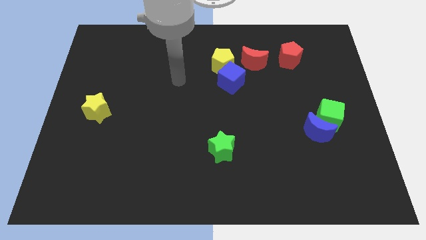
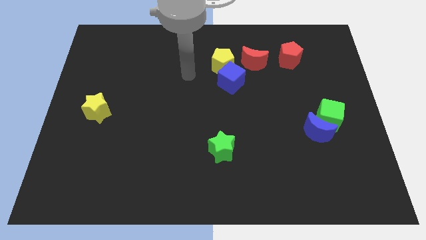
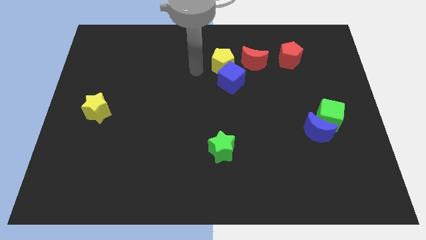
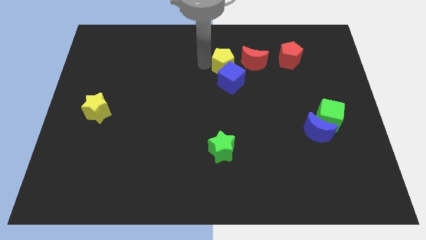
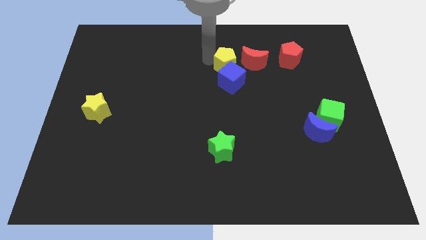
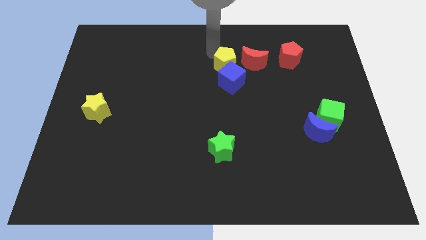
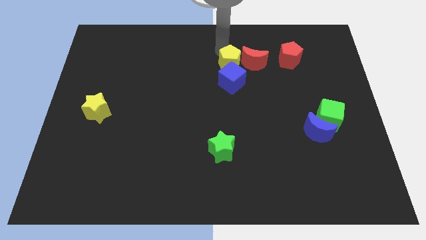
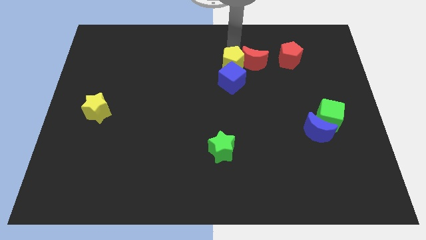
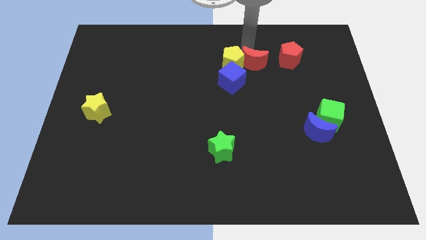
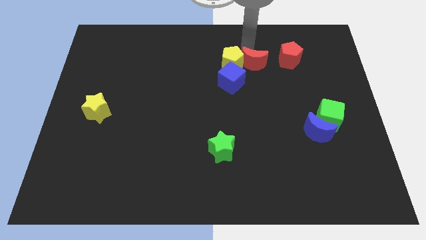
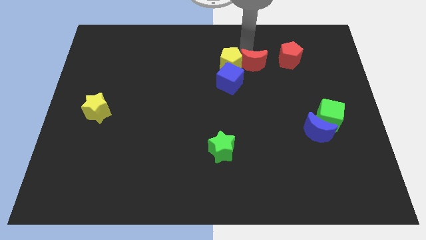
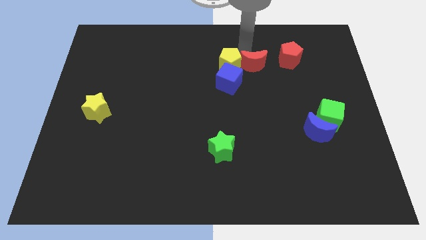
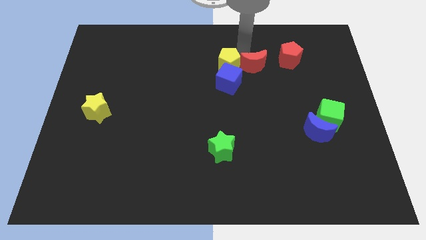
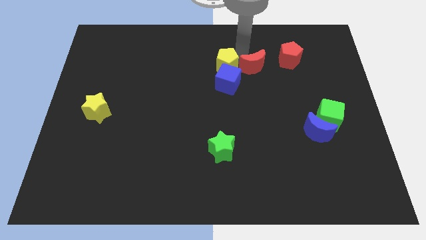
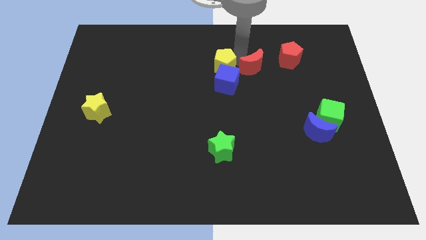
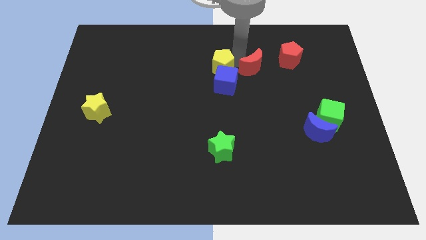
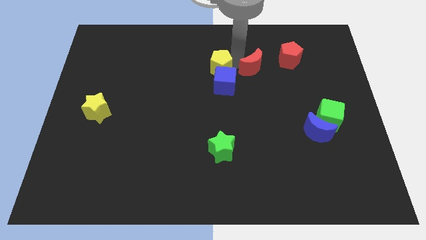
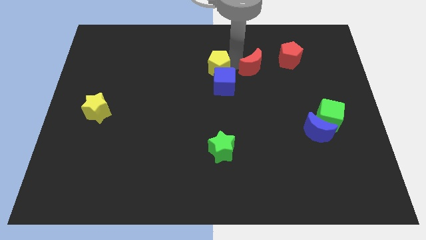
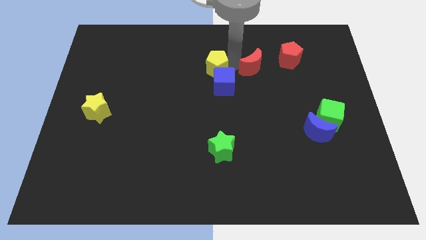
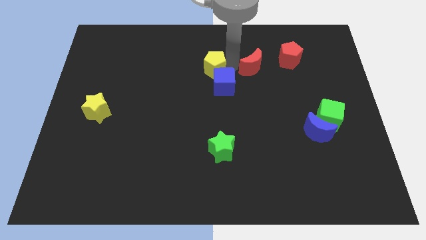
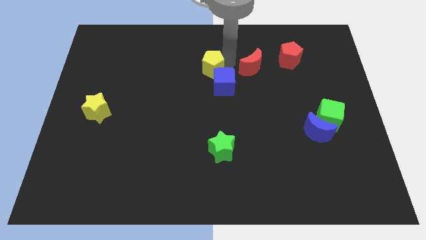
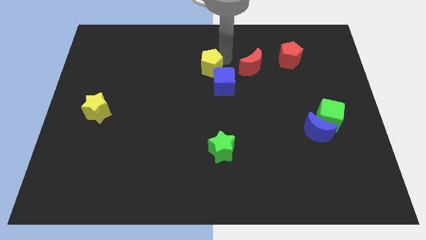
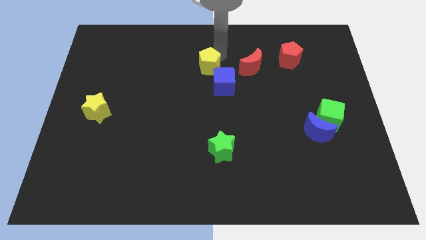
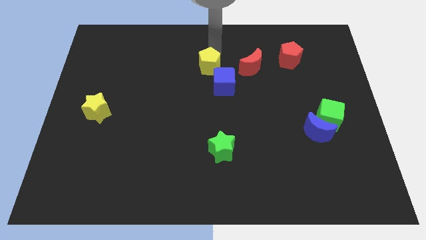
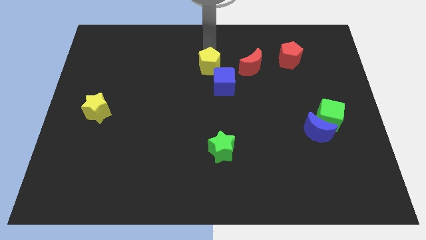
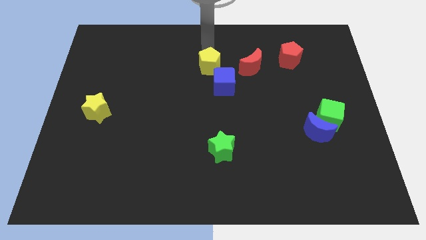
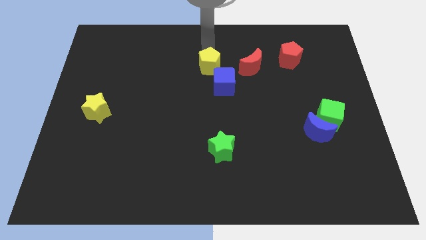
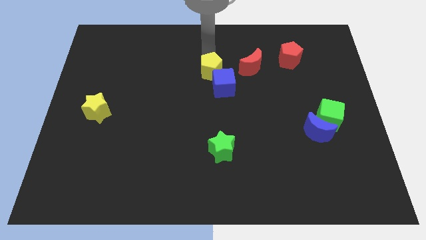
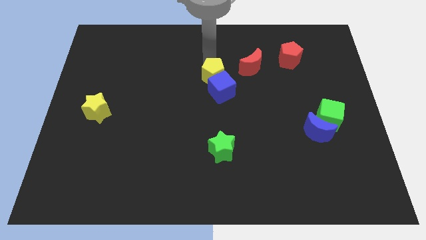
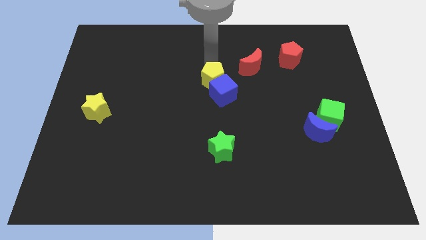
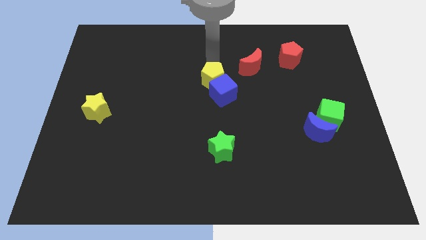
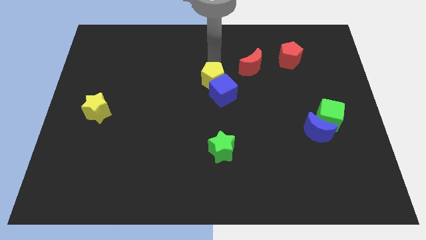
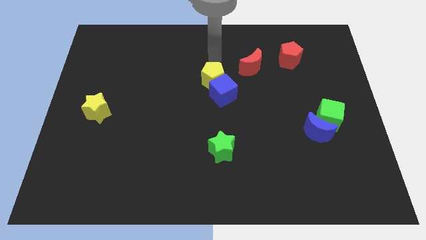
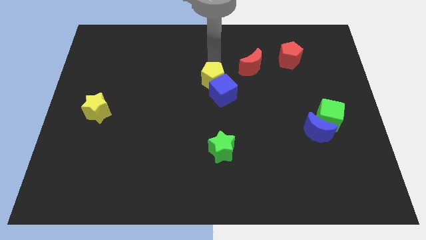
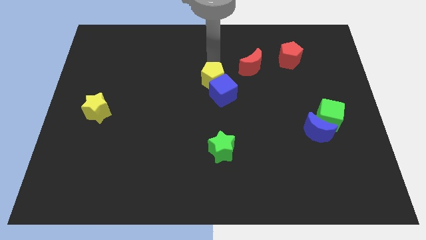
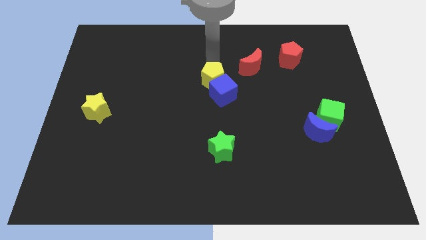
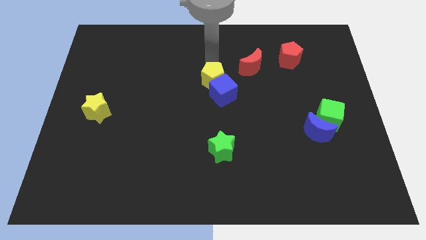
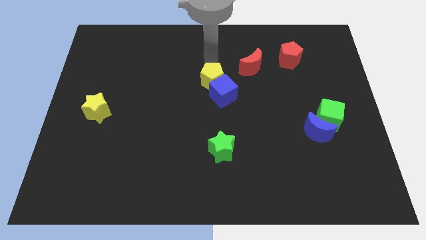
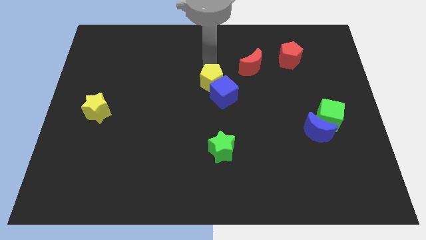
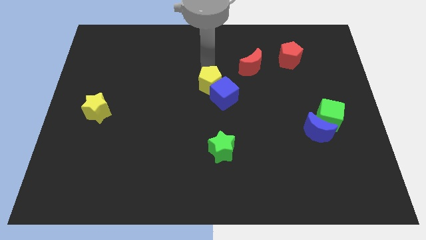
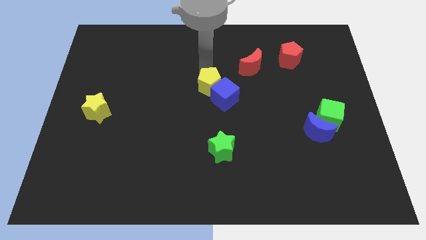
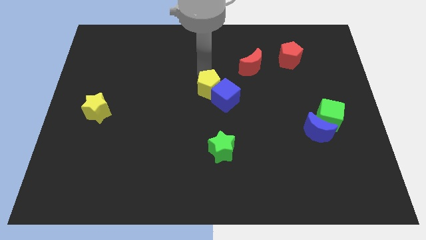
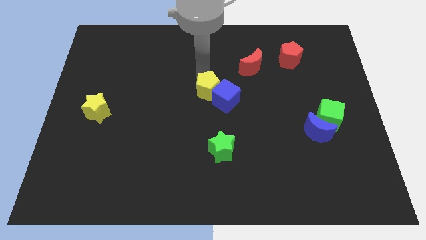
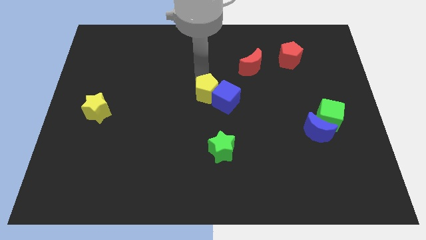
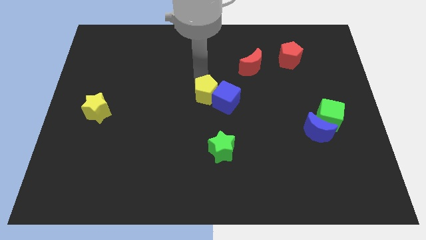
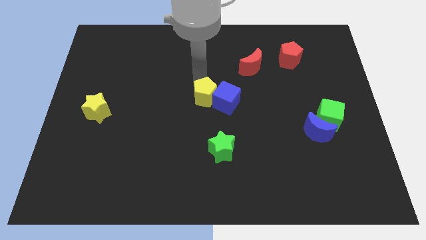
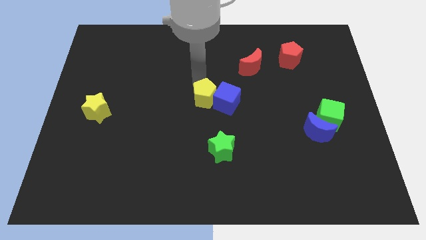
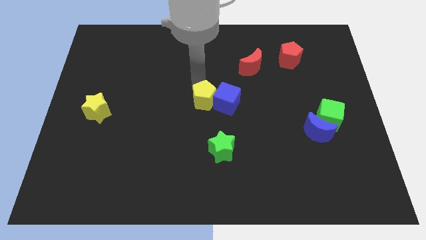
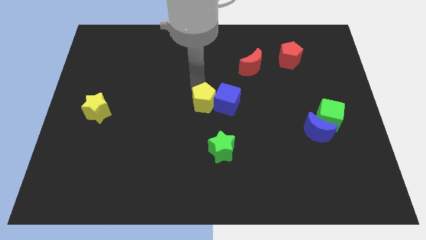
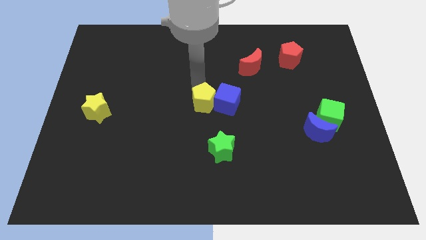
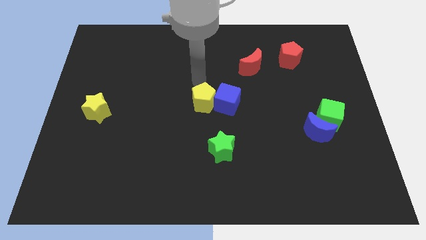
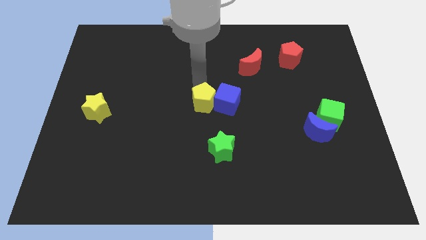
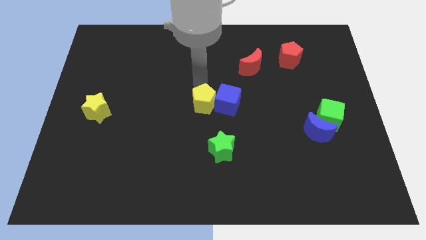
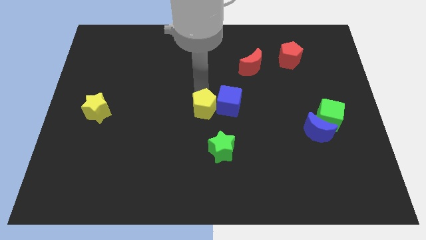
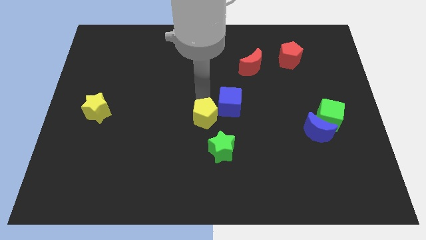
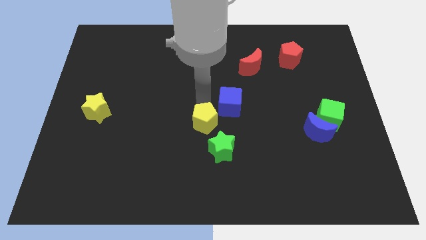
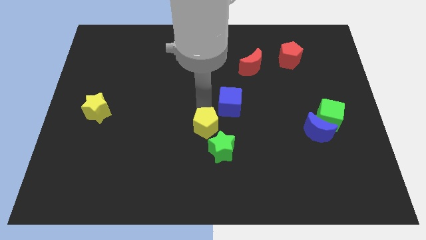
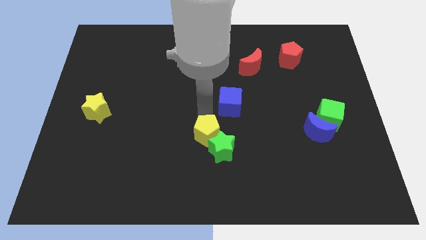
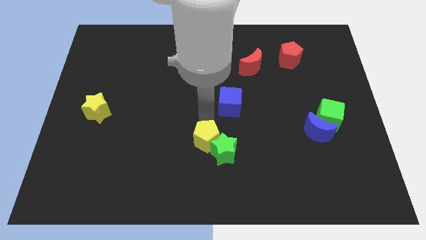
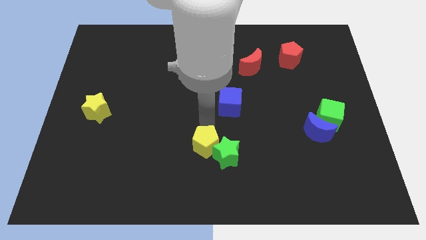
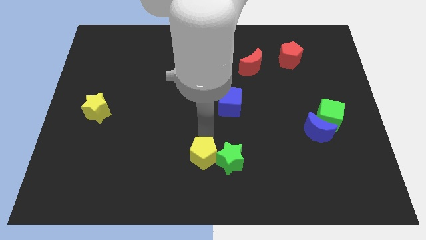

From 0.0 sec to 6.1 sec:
move the yellow pentagon to the bottom left side of the green star

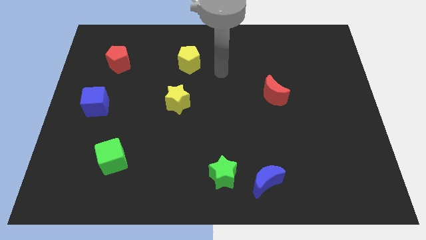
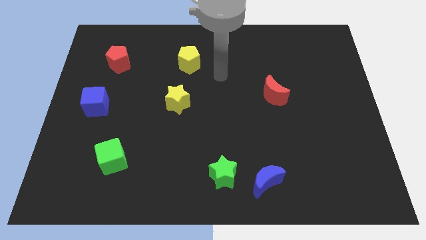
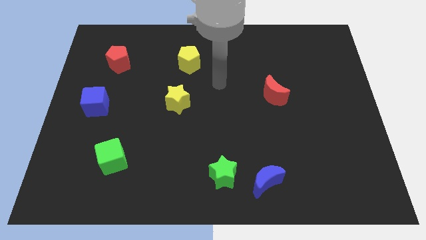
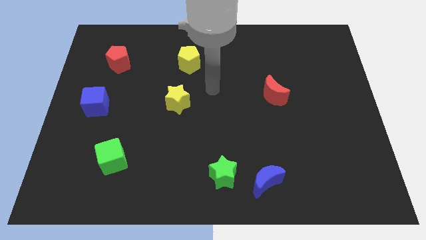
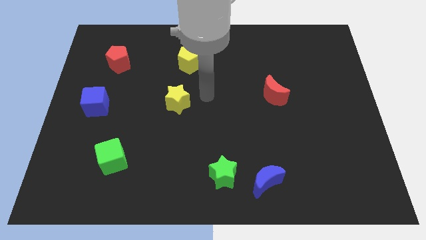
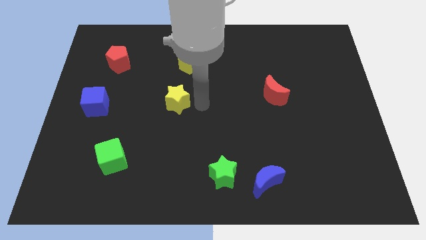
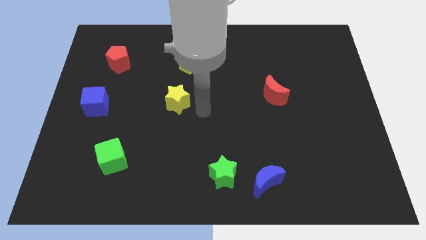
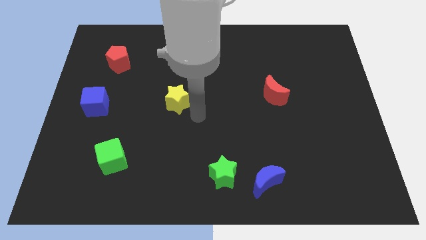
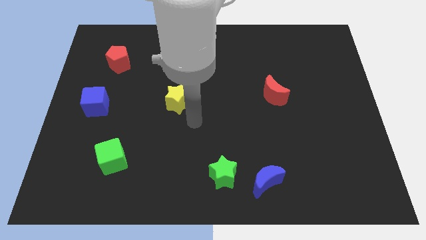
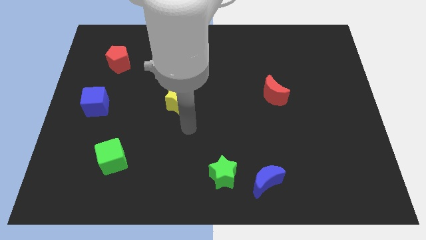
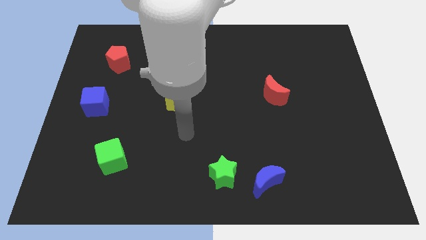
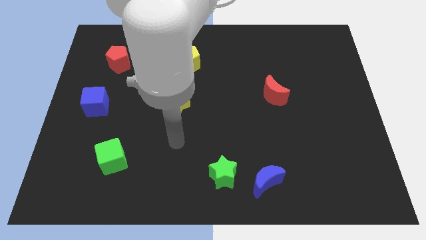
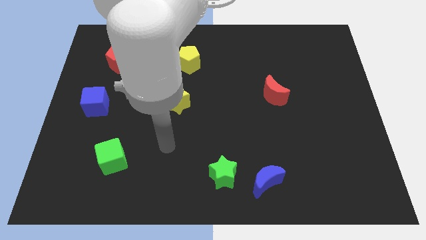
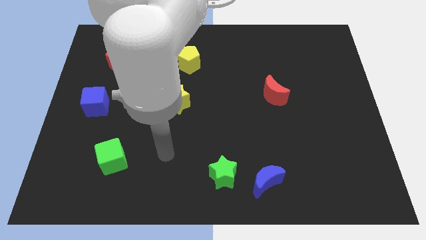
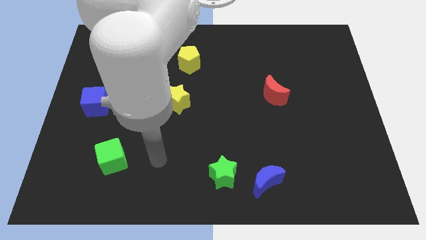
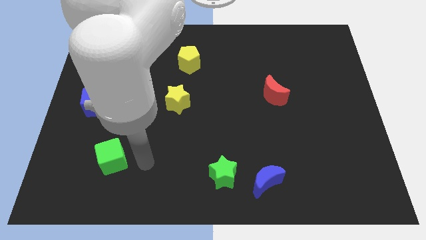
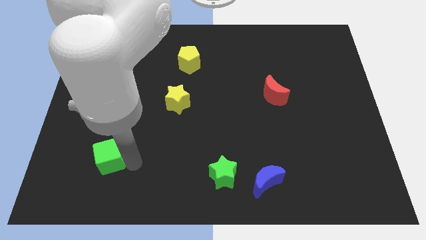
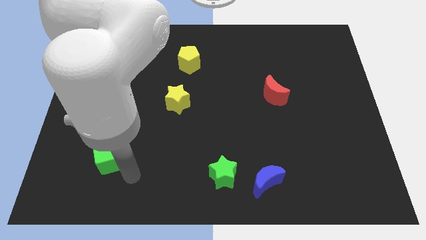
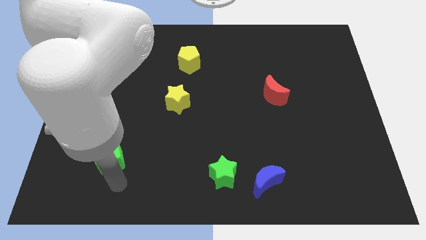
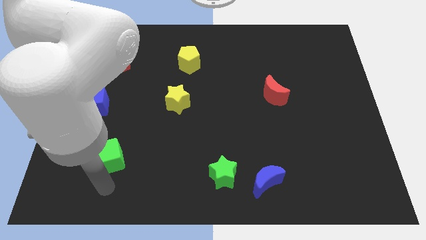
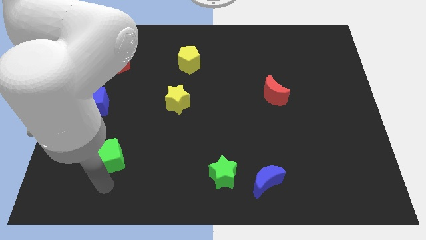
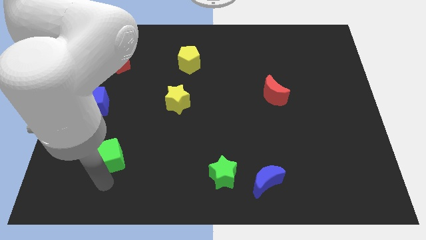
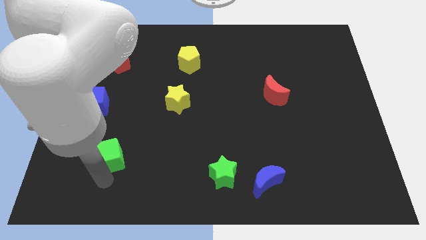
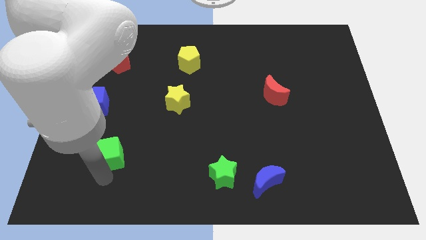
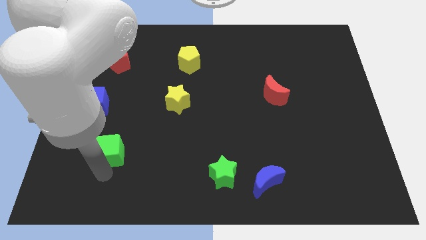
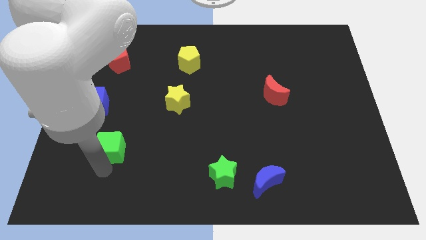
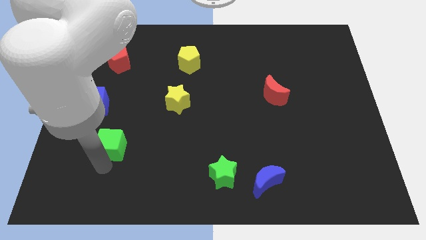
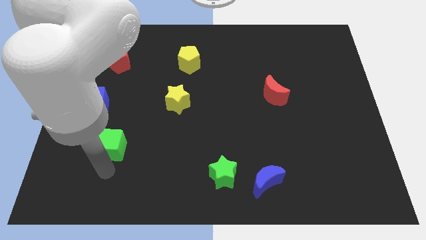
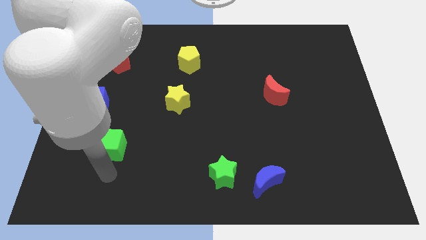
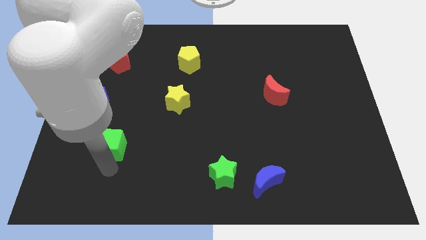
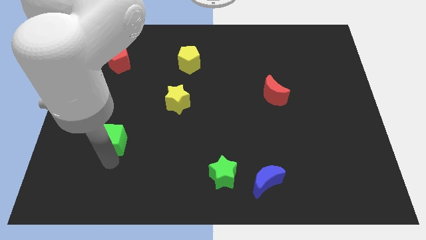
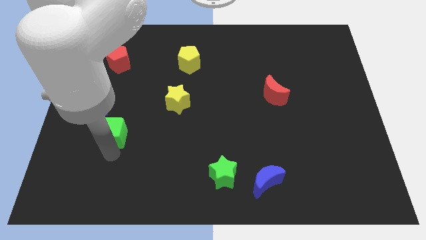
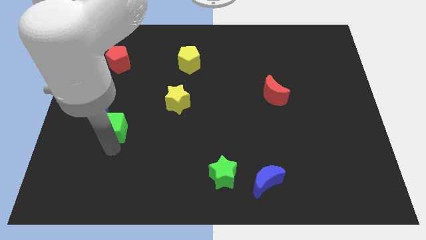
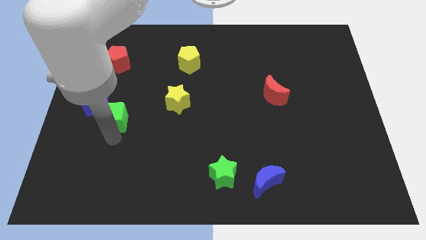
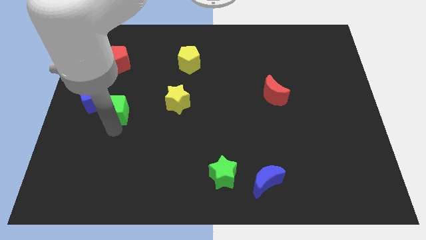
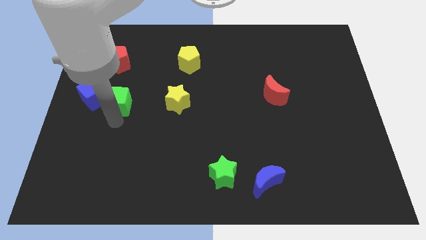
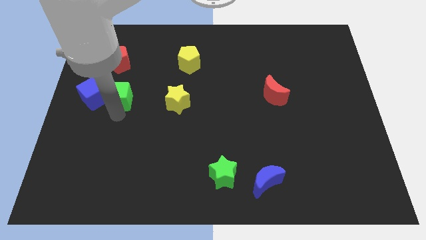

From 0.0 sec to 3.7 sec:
push the green cube to the top right of the blue cube
